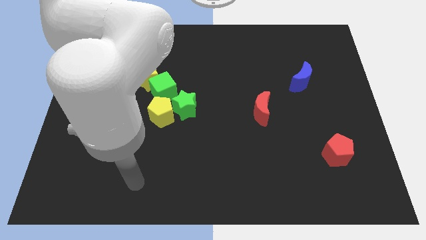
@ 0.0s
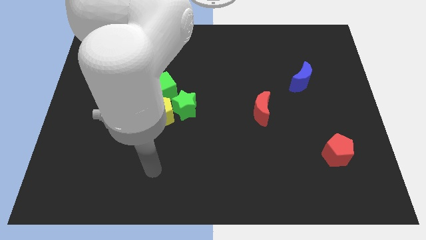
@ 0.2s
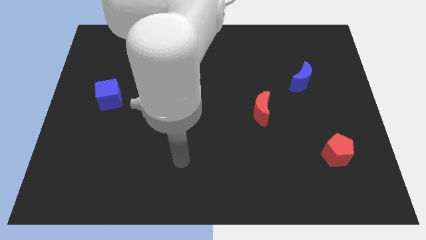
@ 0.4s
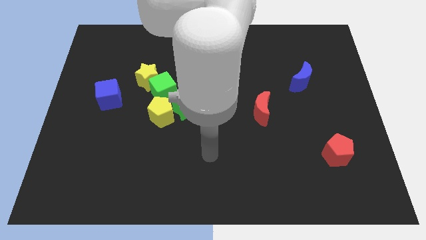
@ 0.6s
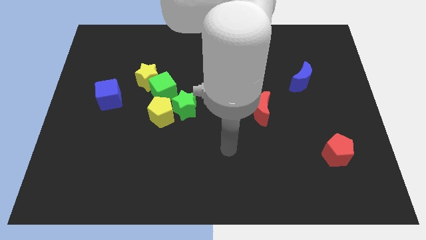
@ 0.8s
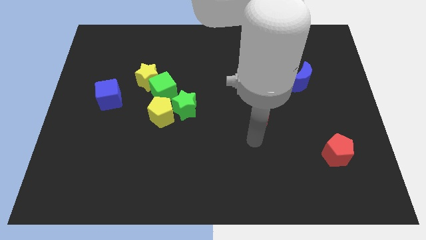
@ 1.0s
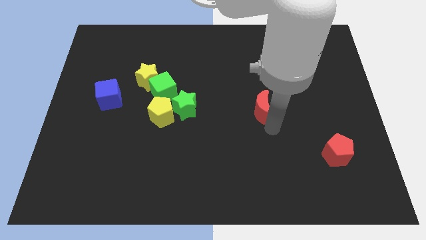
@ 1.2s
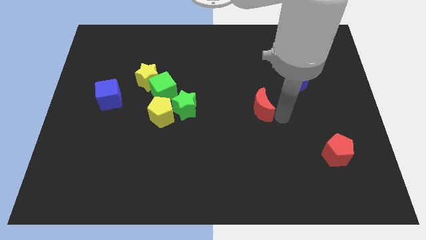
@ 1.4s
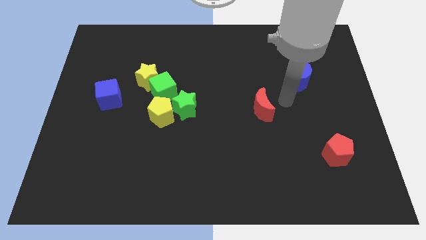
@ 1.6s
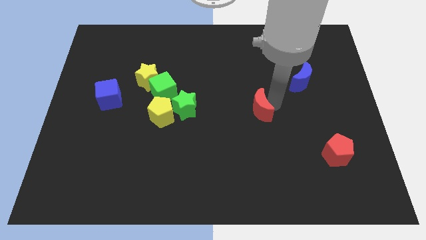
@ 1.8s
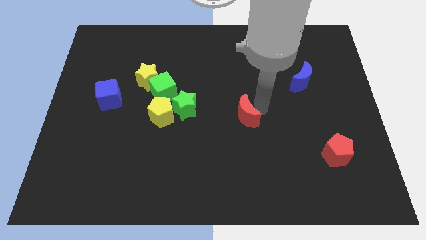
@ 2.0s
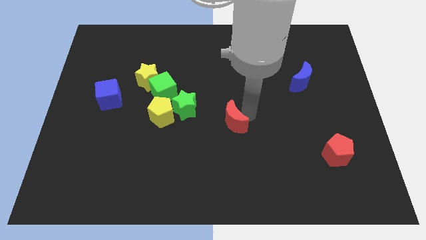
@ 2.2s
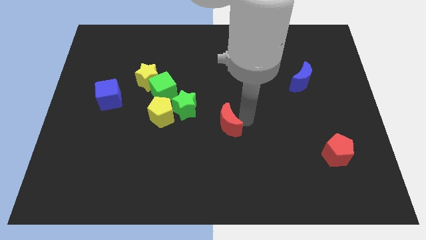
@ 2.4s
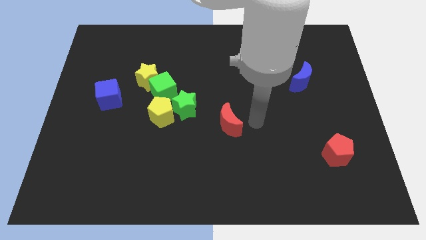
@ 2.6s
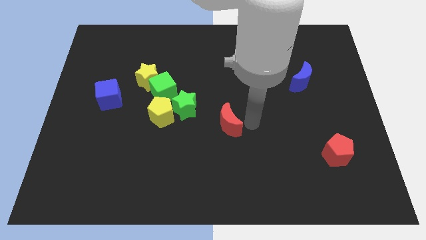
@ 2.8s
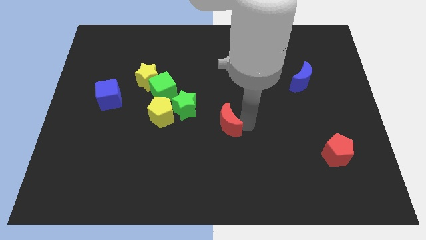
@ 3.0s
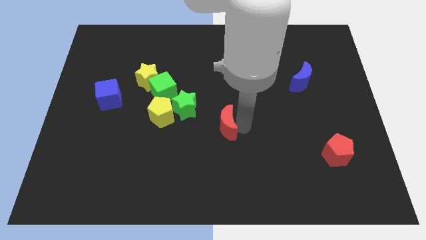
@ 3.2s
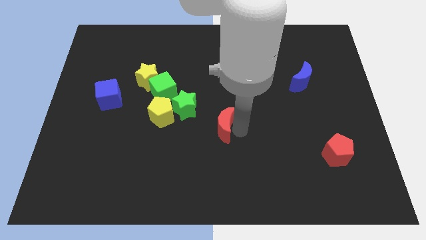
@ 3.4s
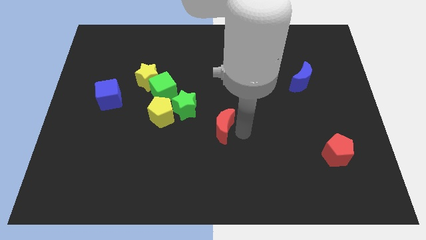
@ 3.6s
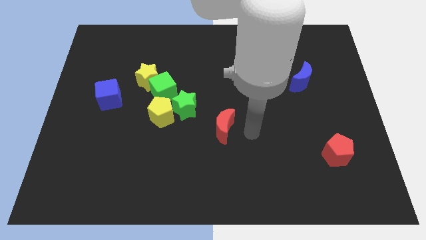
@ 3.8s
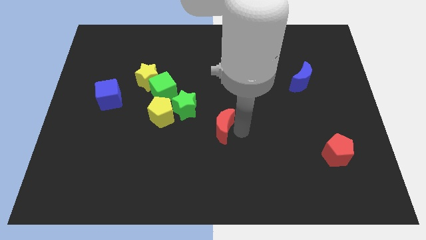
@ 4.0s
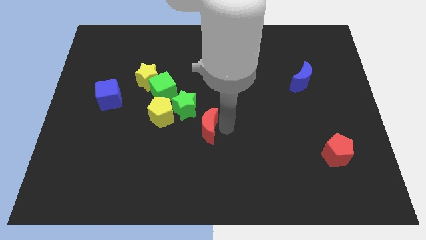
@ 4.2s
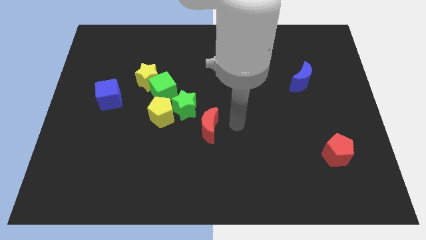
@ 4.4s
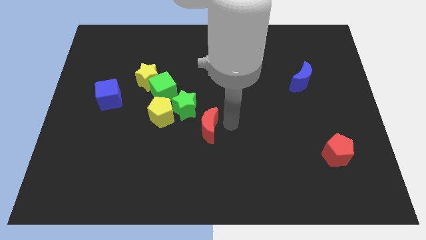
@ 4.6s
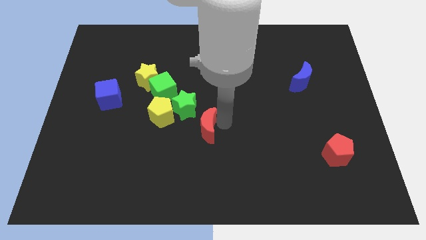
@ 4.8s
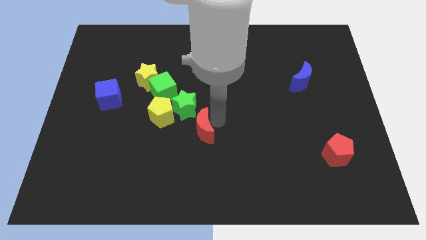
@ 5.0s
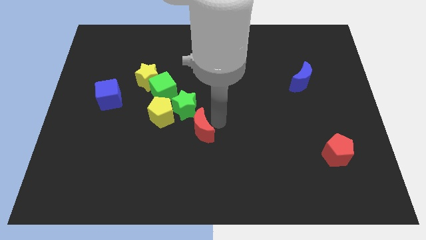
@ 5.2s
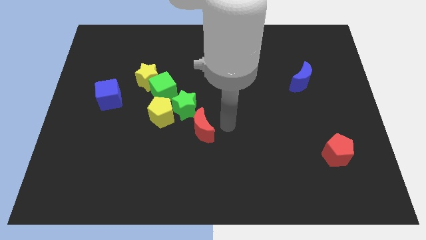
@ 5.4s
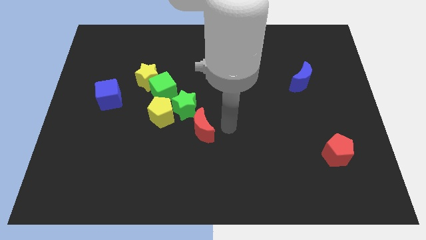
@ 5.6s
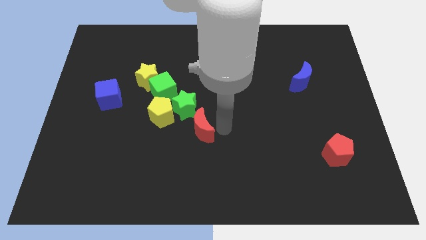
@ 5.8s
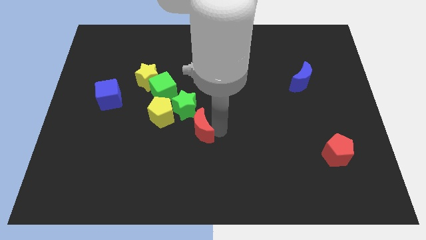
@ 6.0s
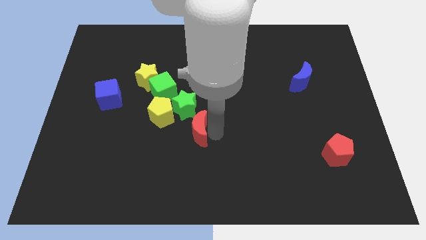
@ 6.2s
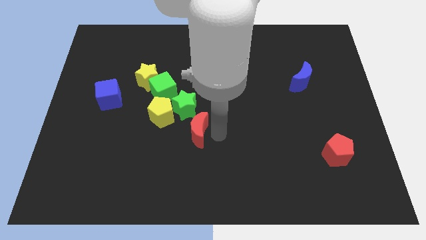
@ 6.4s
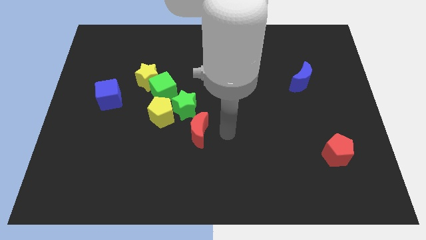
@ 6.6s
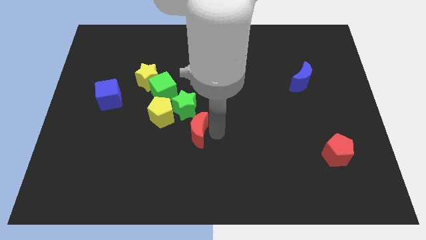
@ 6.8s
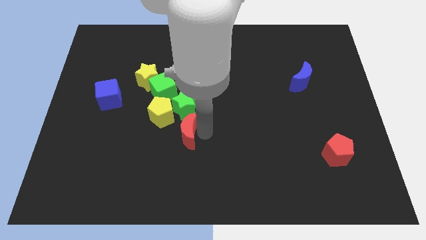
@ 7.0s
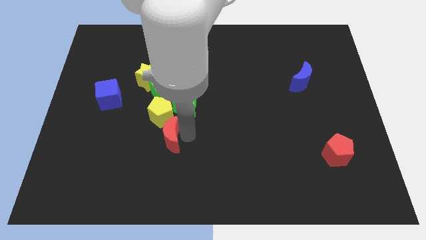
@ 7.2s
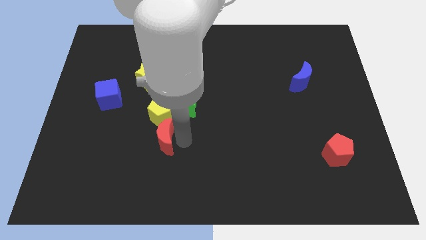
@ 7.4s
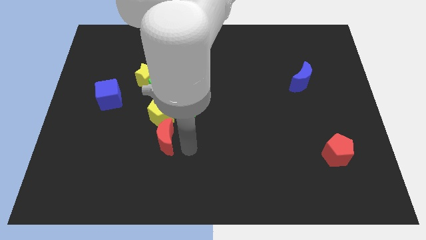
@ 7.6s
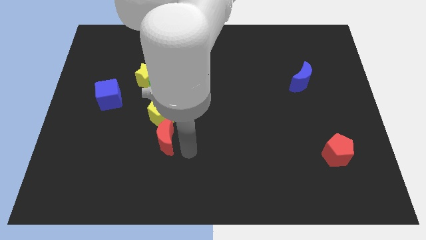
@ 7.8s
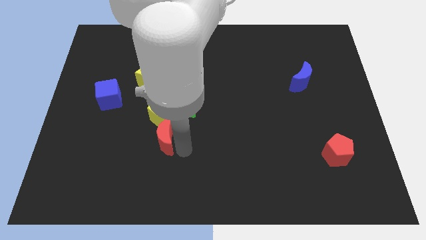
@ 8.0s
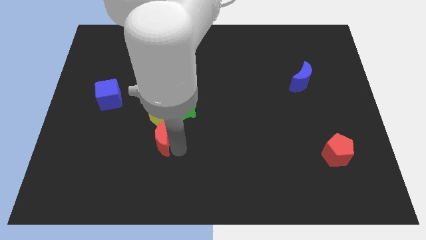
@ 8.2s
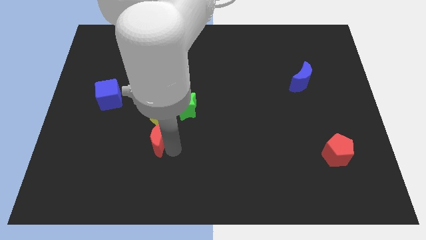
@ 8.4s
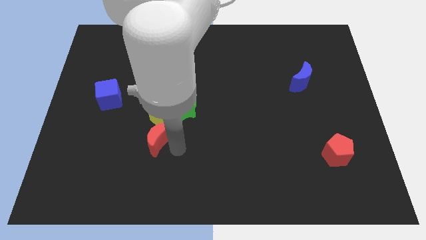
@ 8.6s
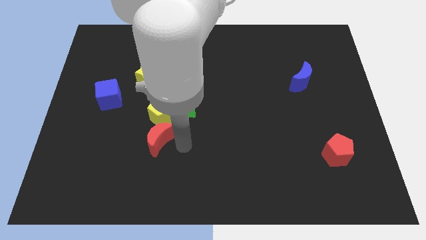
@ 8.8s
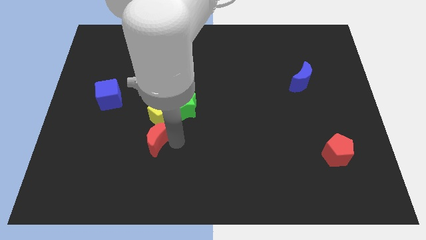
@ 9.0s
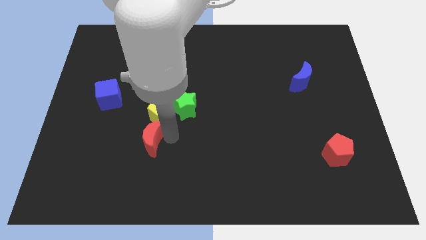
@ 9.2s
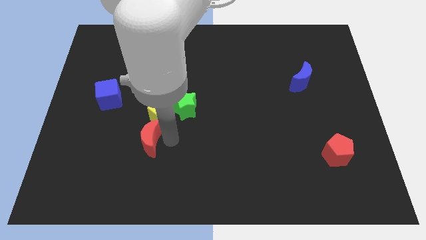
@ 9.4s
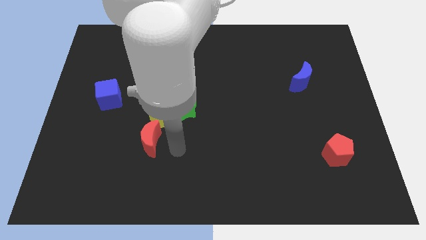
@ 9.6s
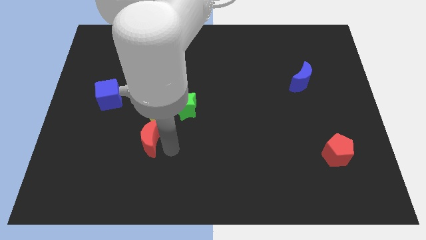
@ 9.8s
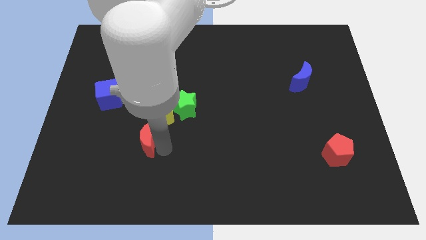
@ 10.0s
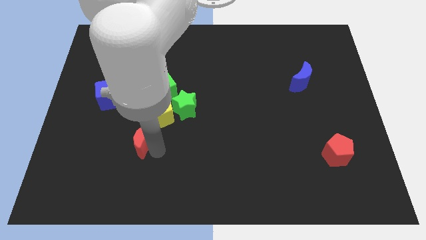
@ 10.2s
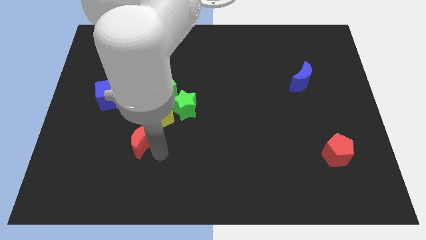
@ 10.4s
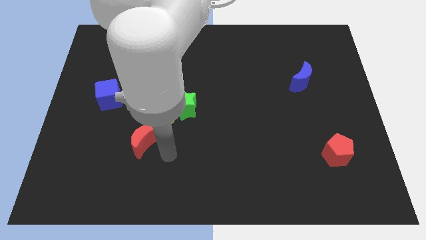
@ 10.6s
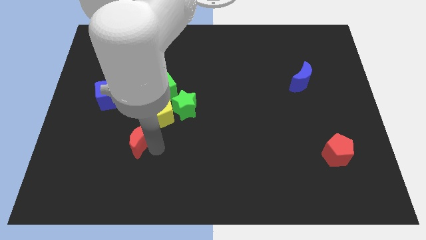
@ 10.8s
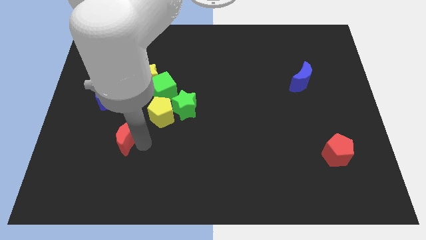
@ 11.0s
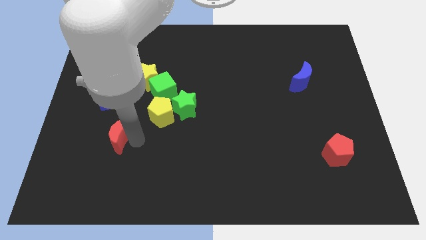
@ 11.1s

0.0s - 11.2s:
put the red moon below the blue cube

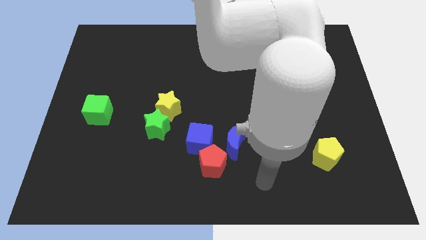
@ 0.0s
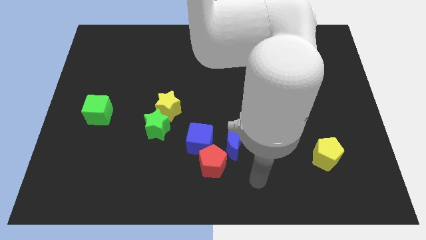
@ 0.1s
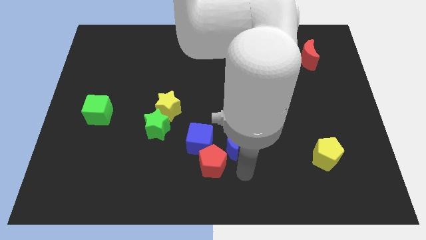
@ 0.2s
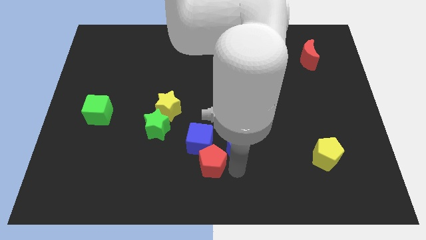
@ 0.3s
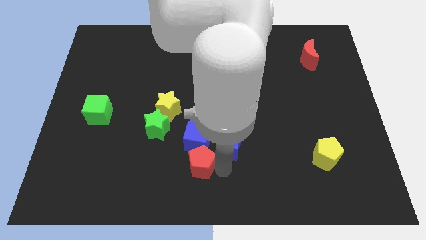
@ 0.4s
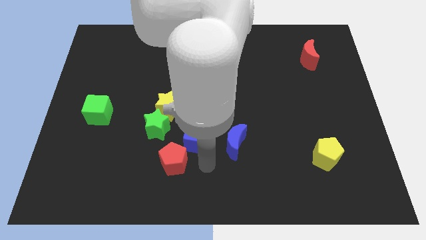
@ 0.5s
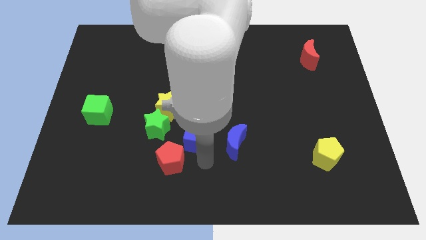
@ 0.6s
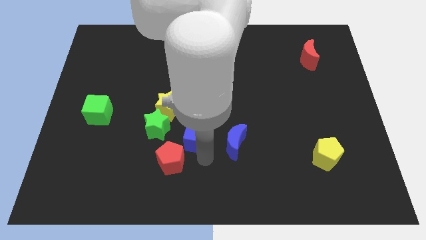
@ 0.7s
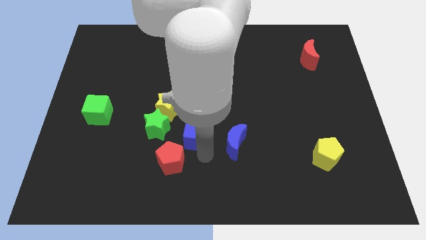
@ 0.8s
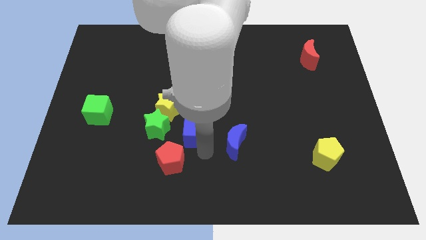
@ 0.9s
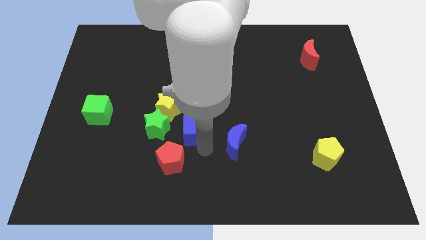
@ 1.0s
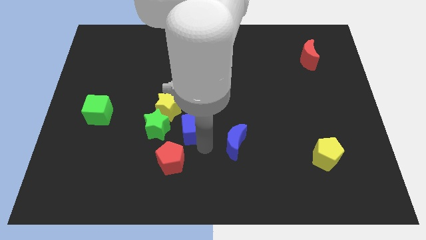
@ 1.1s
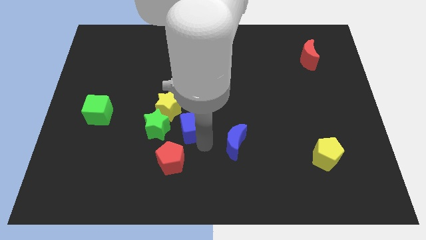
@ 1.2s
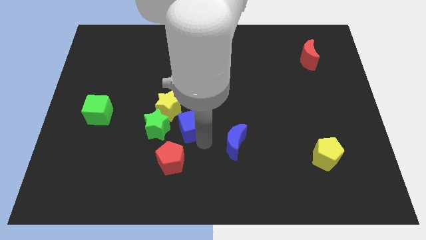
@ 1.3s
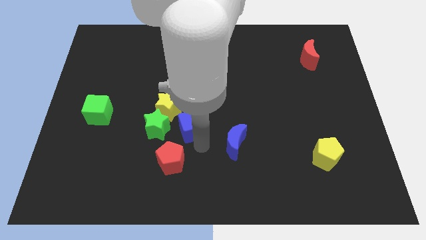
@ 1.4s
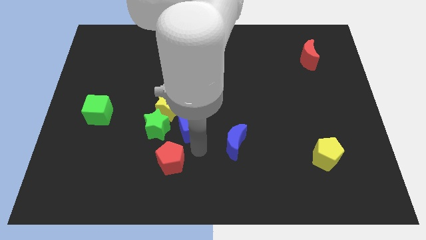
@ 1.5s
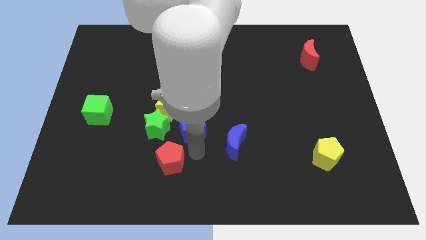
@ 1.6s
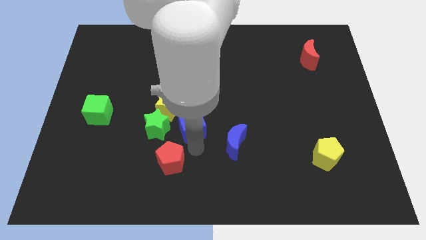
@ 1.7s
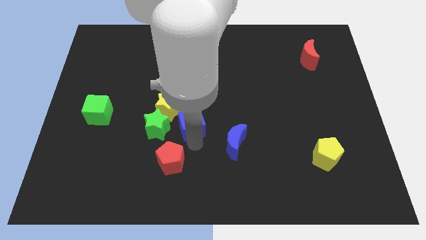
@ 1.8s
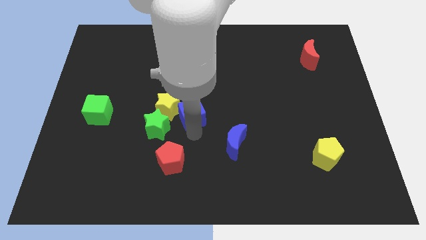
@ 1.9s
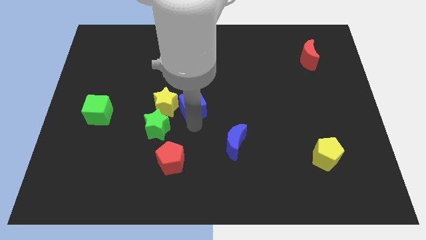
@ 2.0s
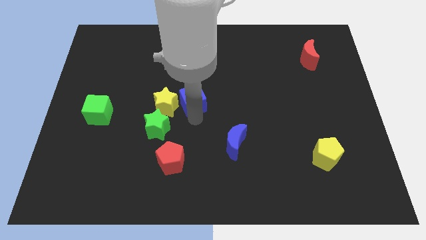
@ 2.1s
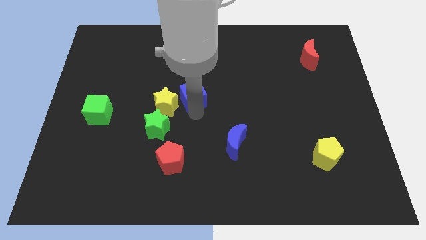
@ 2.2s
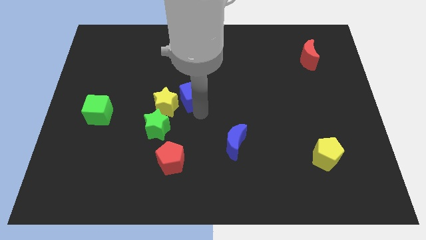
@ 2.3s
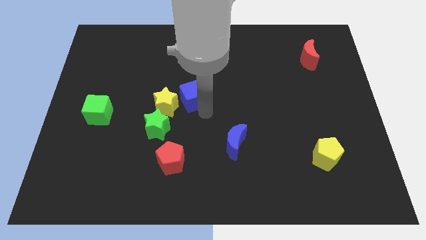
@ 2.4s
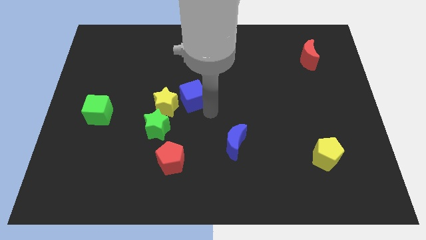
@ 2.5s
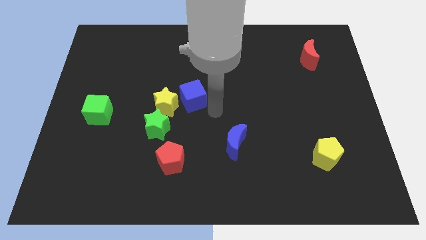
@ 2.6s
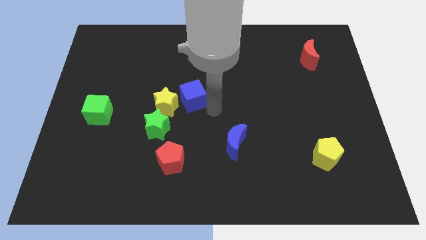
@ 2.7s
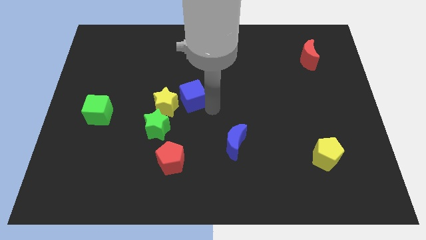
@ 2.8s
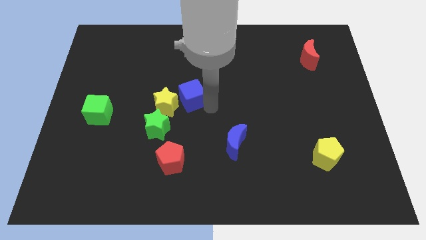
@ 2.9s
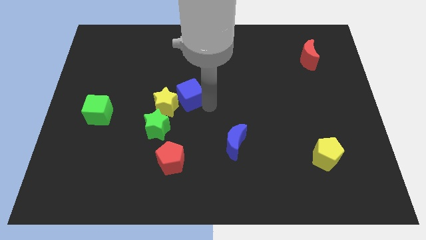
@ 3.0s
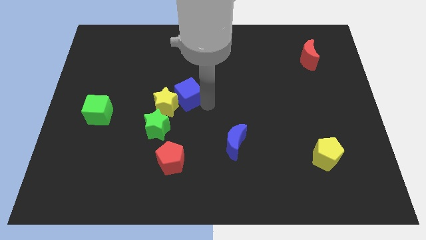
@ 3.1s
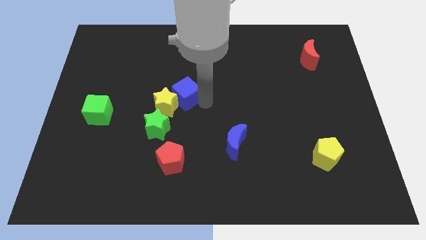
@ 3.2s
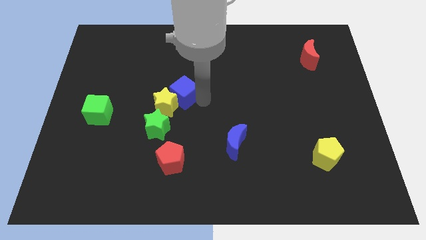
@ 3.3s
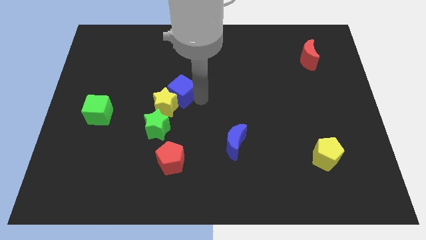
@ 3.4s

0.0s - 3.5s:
move the blue cube to the top of the green star
